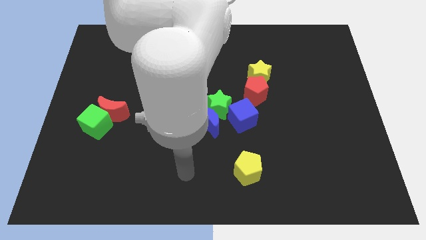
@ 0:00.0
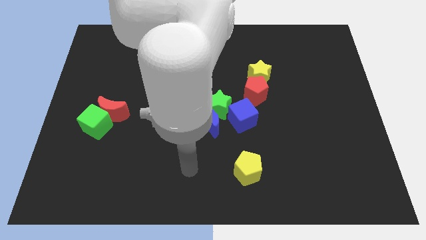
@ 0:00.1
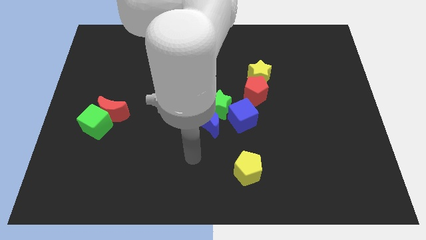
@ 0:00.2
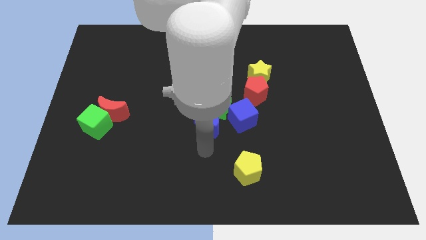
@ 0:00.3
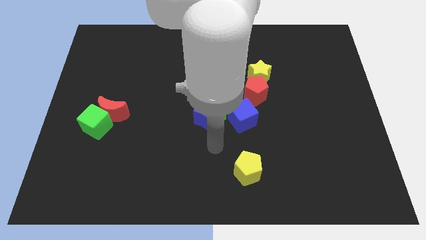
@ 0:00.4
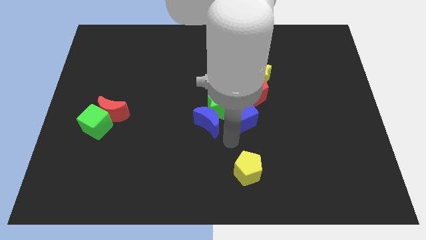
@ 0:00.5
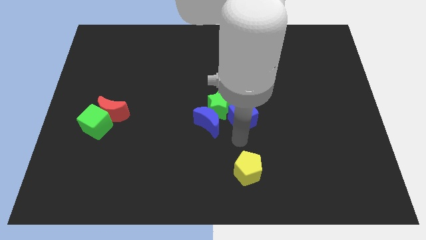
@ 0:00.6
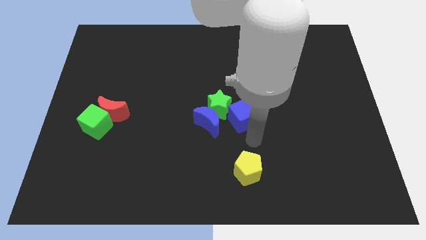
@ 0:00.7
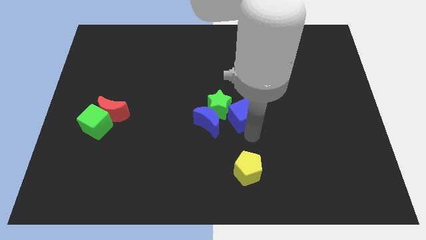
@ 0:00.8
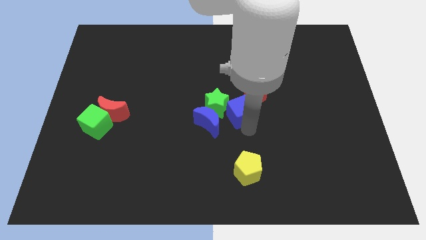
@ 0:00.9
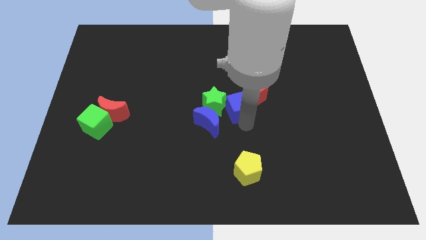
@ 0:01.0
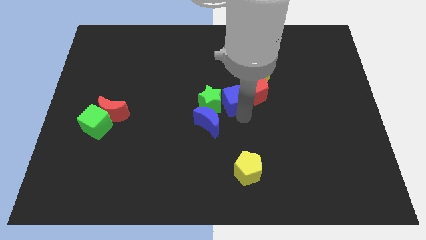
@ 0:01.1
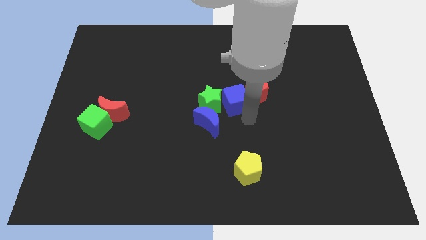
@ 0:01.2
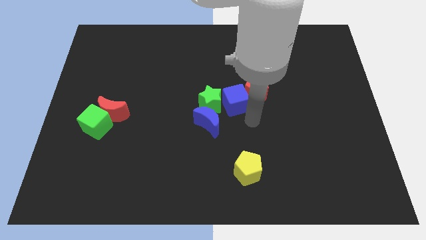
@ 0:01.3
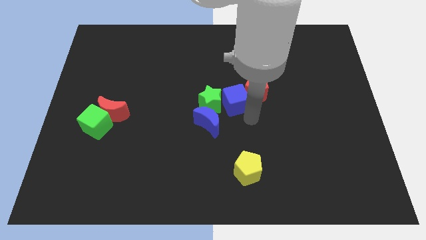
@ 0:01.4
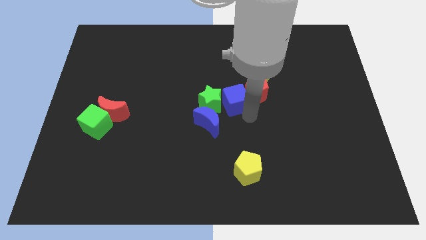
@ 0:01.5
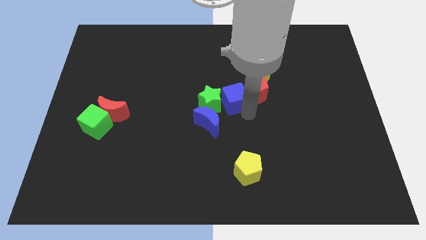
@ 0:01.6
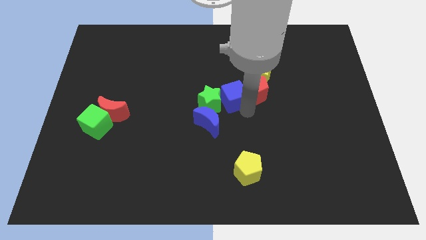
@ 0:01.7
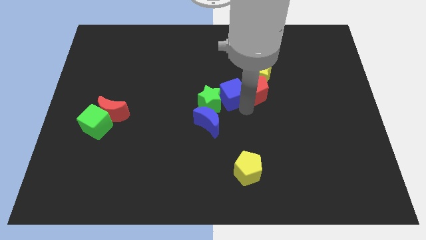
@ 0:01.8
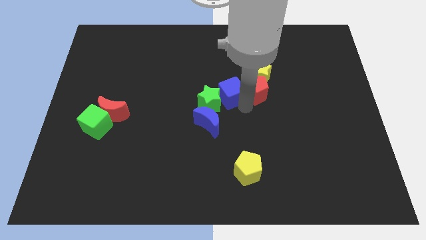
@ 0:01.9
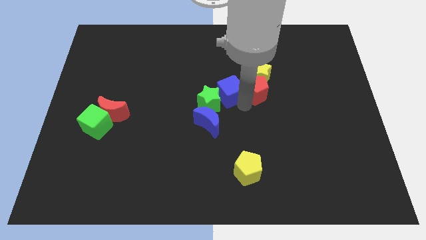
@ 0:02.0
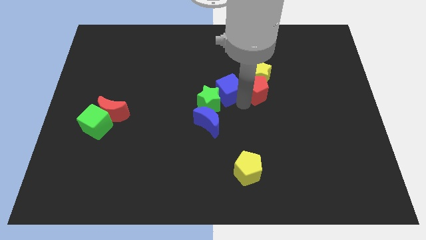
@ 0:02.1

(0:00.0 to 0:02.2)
slightly move the blue cube up and left

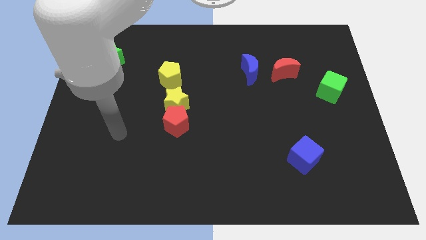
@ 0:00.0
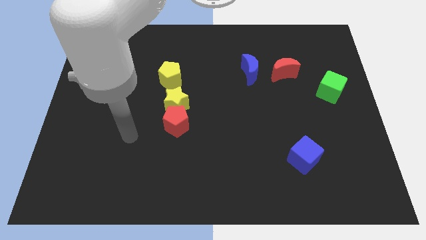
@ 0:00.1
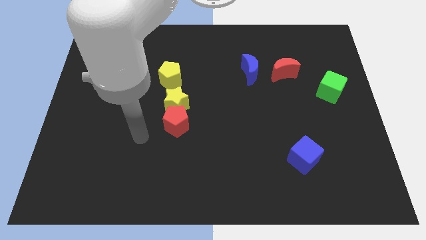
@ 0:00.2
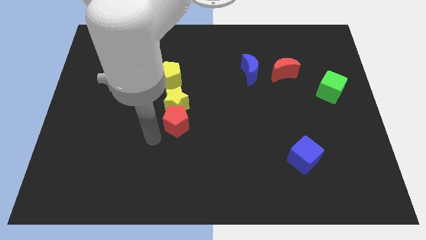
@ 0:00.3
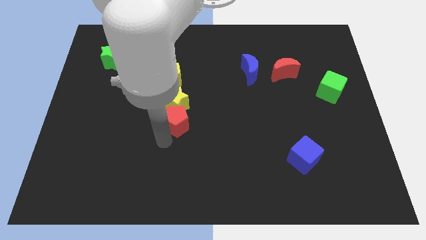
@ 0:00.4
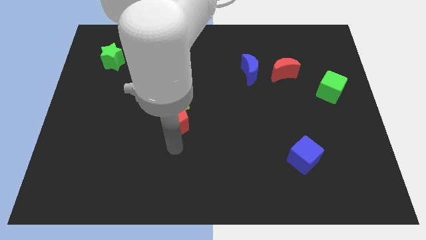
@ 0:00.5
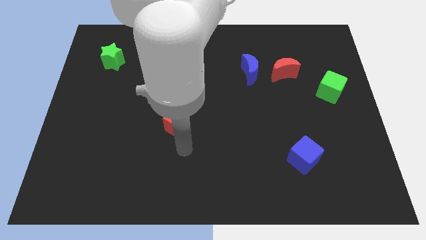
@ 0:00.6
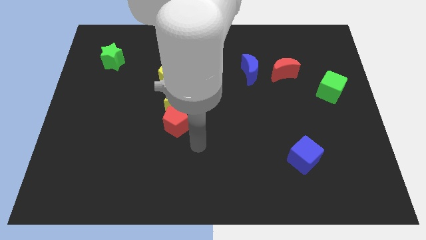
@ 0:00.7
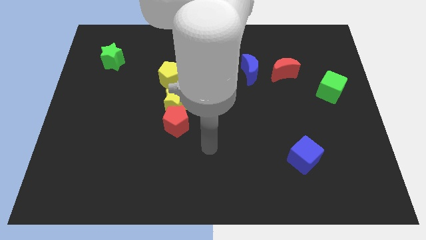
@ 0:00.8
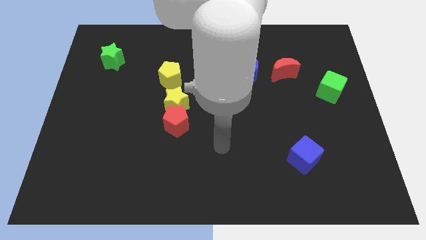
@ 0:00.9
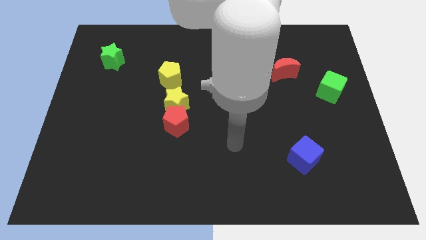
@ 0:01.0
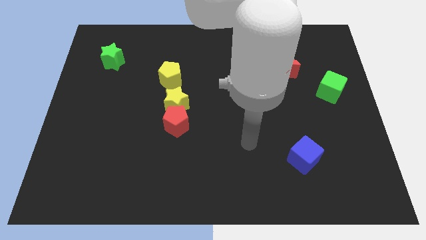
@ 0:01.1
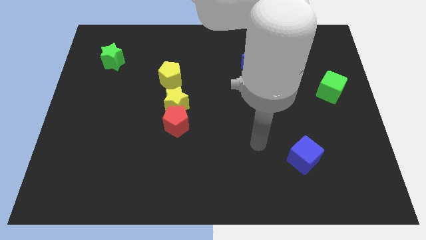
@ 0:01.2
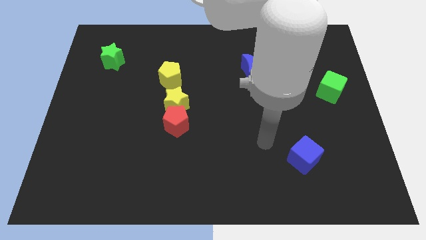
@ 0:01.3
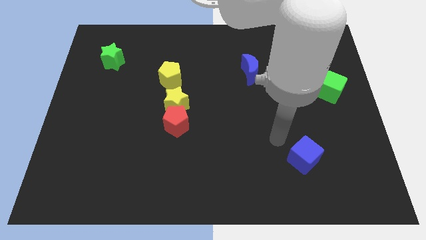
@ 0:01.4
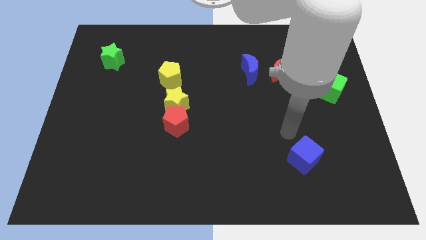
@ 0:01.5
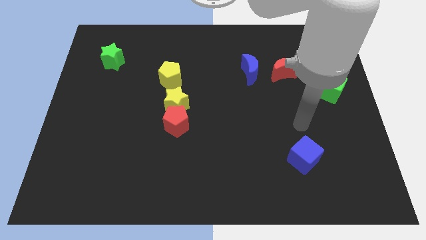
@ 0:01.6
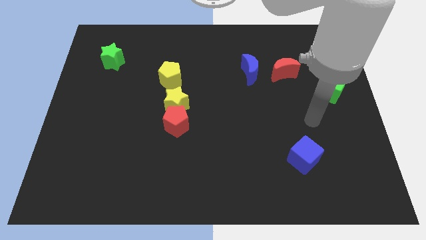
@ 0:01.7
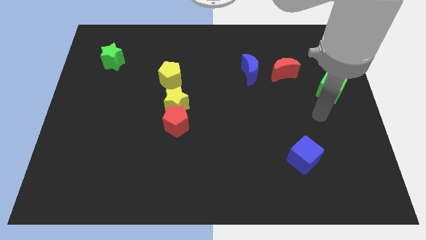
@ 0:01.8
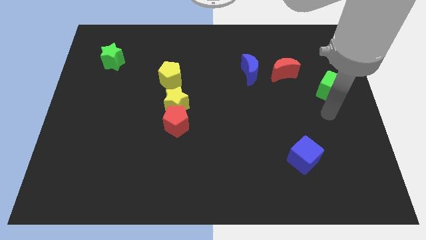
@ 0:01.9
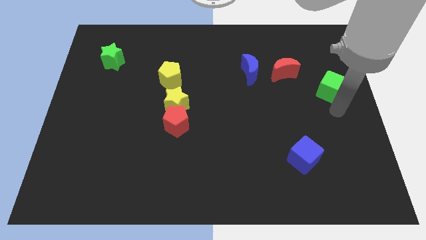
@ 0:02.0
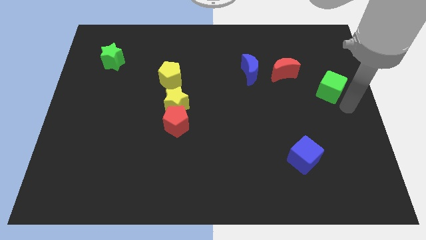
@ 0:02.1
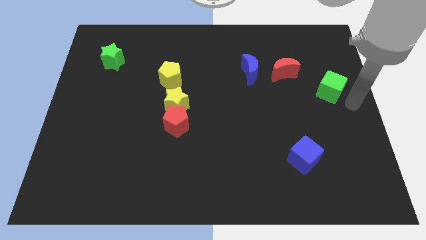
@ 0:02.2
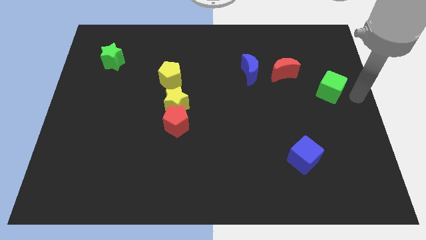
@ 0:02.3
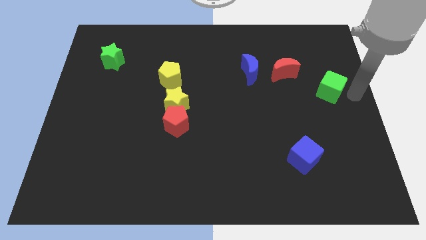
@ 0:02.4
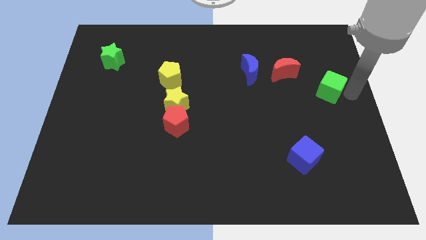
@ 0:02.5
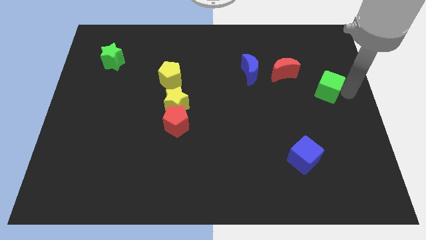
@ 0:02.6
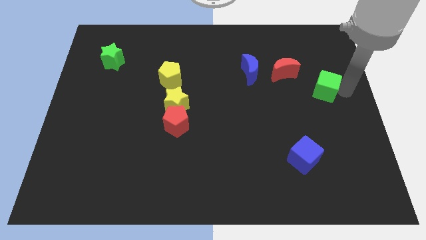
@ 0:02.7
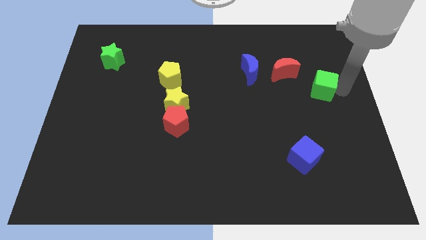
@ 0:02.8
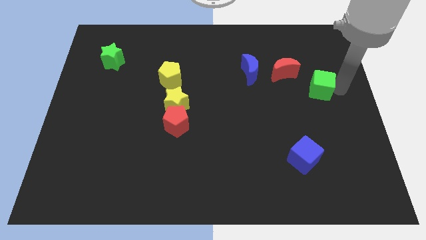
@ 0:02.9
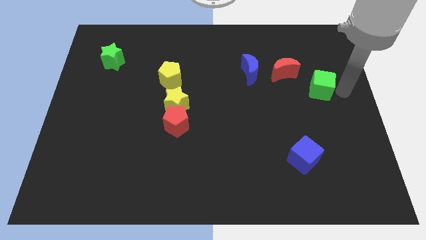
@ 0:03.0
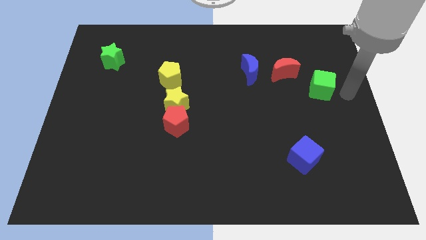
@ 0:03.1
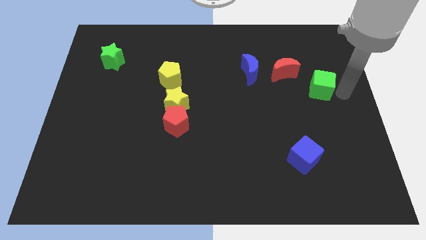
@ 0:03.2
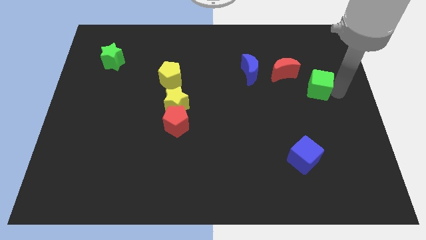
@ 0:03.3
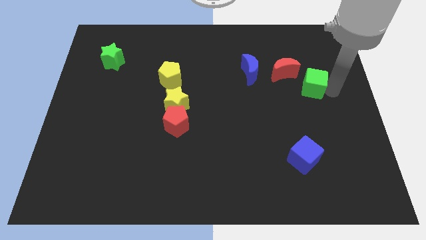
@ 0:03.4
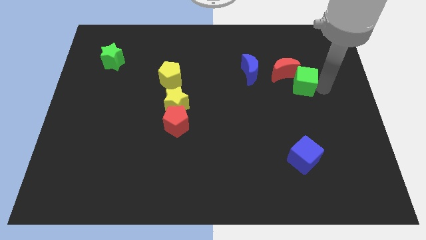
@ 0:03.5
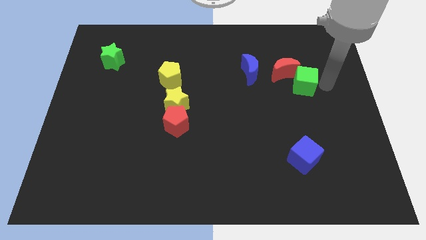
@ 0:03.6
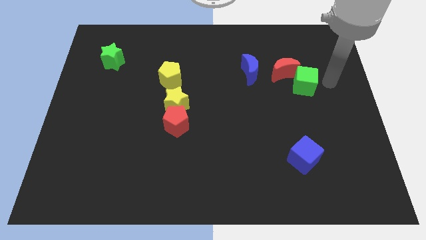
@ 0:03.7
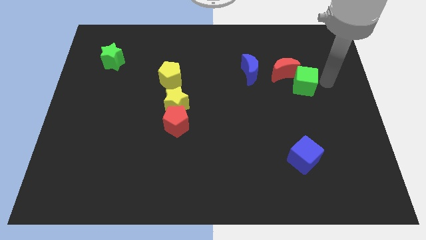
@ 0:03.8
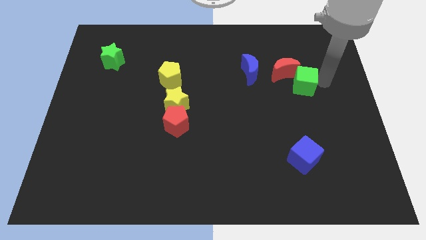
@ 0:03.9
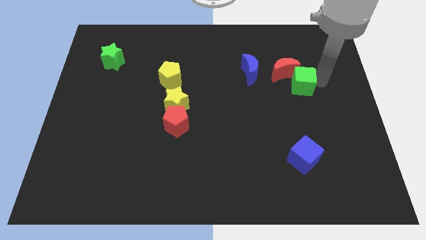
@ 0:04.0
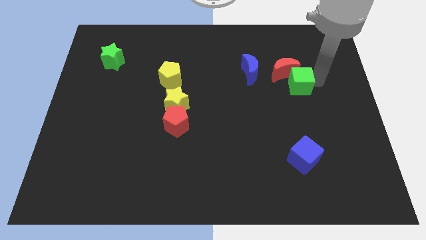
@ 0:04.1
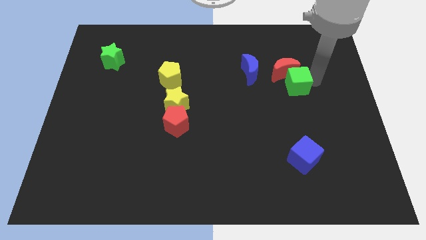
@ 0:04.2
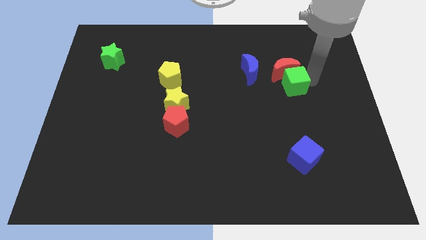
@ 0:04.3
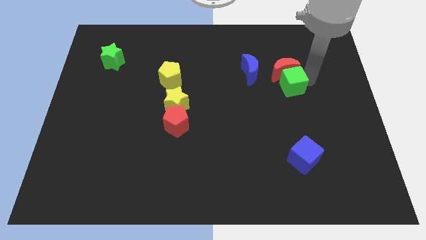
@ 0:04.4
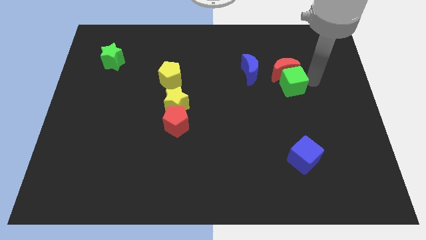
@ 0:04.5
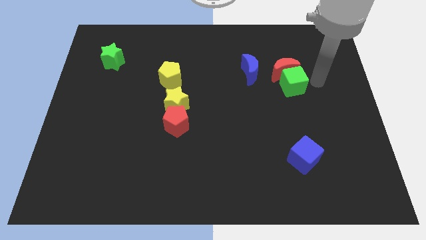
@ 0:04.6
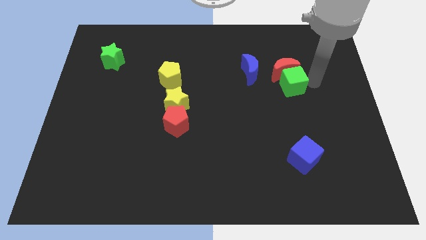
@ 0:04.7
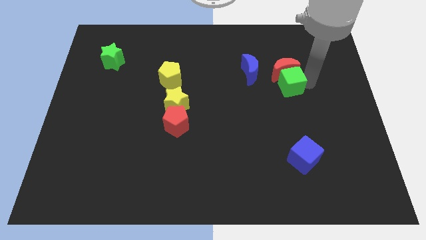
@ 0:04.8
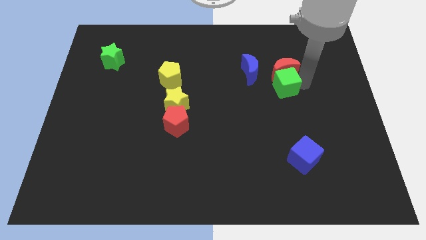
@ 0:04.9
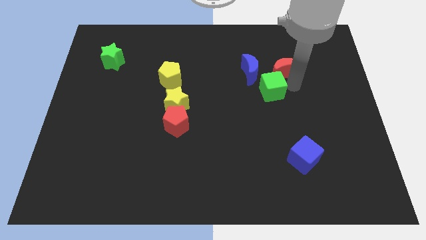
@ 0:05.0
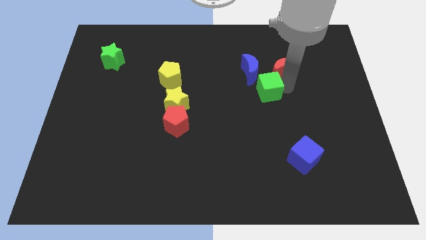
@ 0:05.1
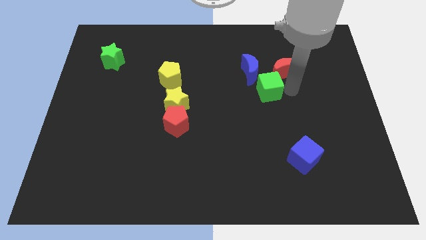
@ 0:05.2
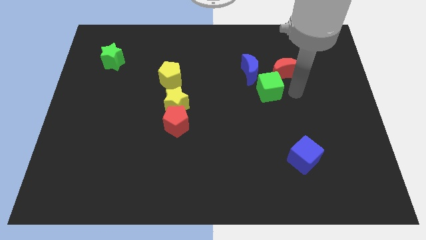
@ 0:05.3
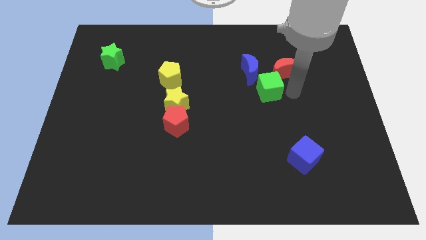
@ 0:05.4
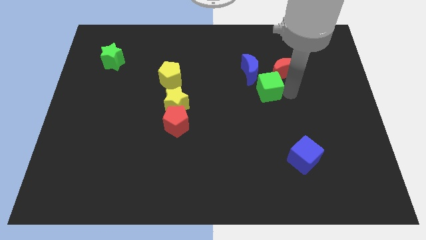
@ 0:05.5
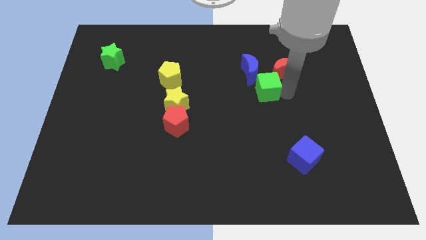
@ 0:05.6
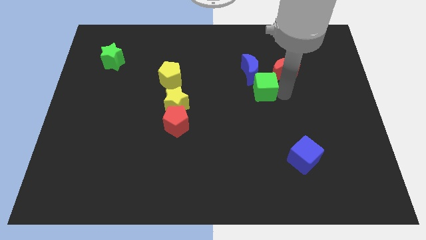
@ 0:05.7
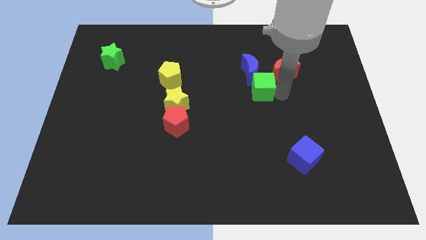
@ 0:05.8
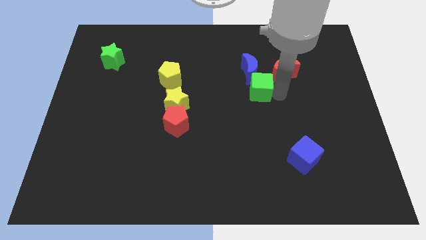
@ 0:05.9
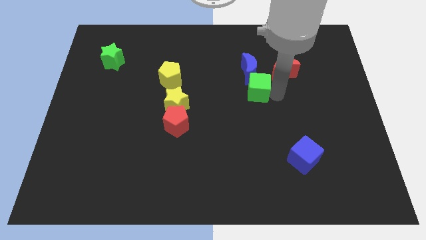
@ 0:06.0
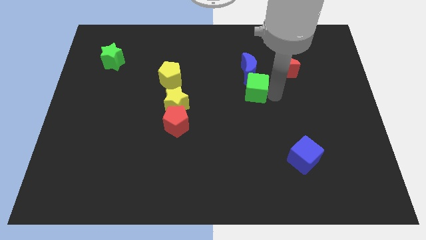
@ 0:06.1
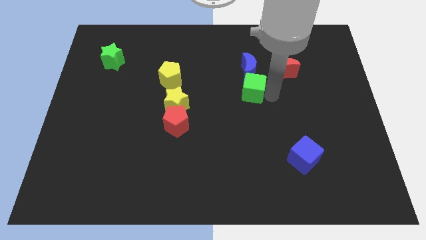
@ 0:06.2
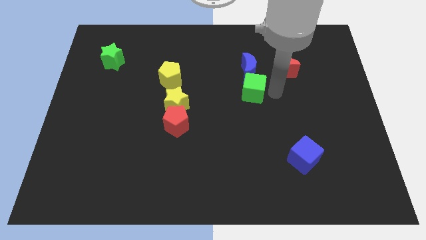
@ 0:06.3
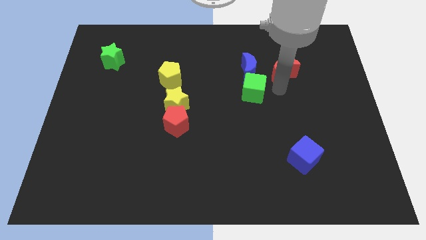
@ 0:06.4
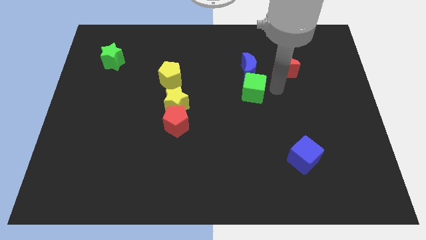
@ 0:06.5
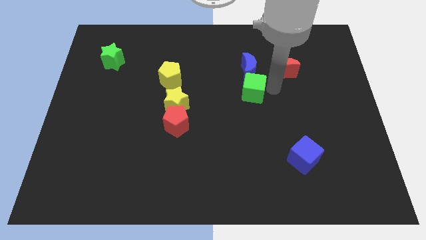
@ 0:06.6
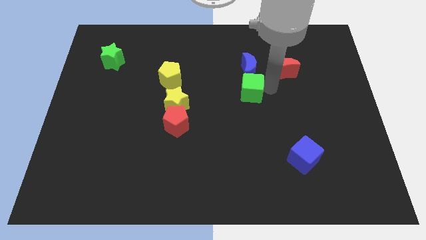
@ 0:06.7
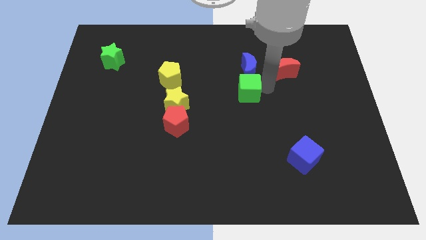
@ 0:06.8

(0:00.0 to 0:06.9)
push the green cube left
